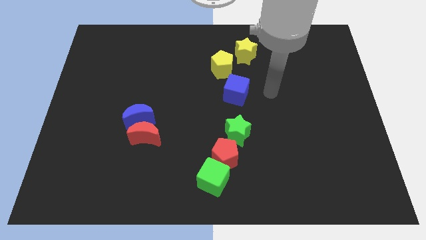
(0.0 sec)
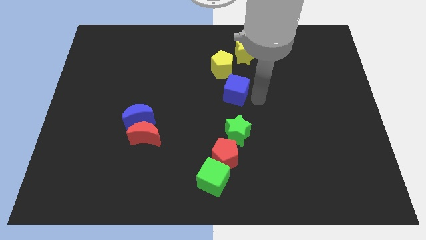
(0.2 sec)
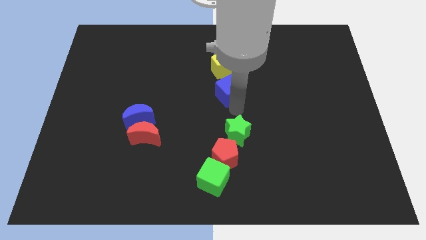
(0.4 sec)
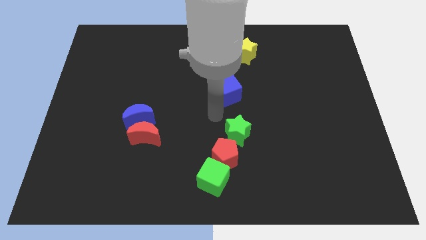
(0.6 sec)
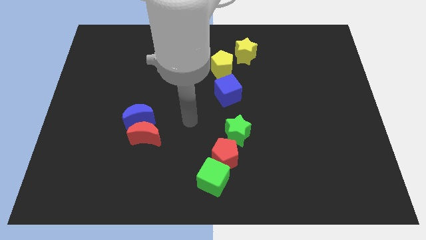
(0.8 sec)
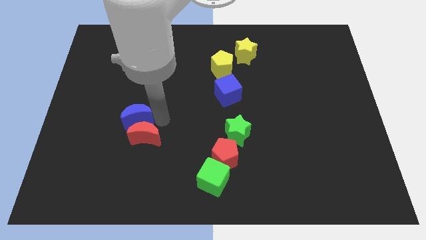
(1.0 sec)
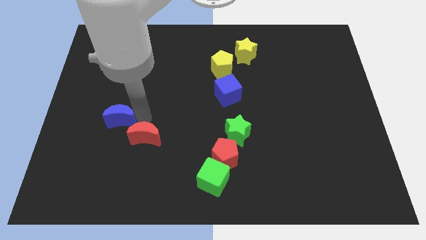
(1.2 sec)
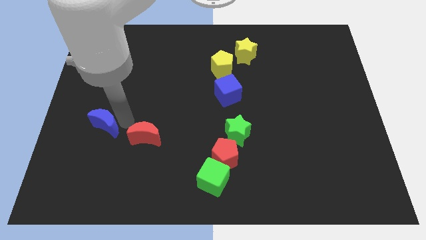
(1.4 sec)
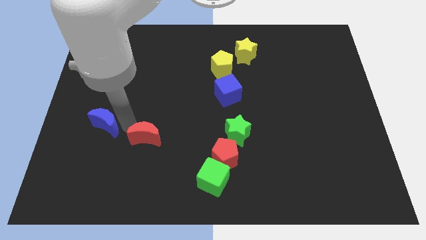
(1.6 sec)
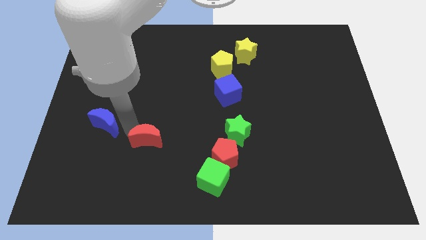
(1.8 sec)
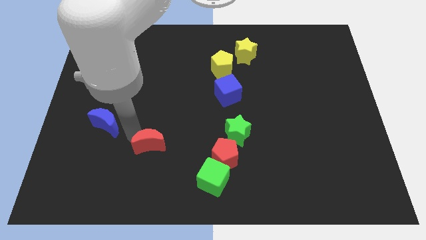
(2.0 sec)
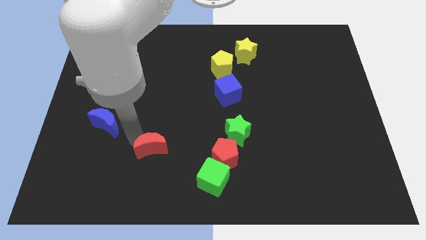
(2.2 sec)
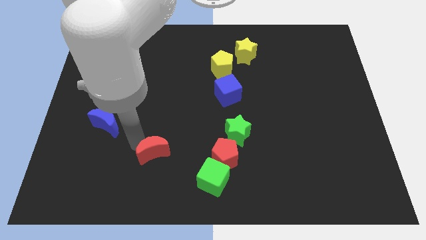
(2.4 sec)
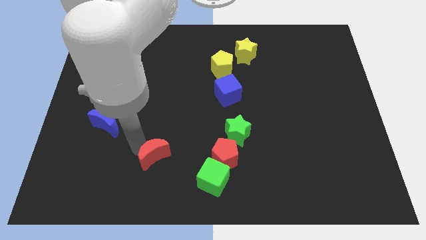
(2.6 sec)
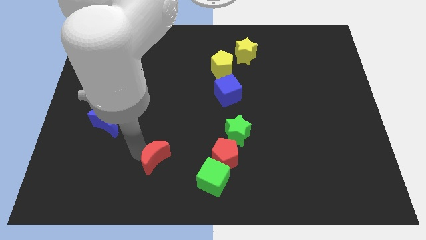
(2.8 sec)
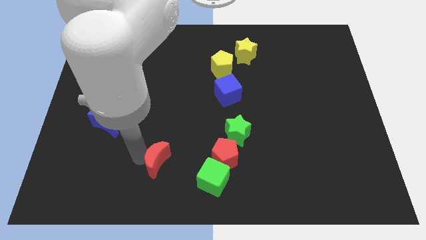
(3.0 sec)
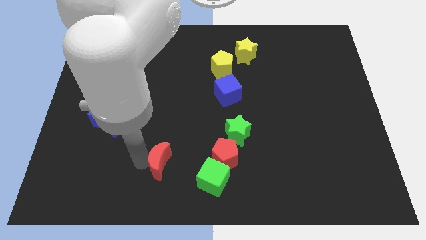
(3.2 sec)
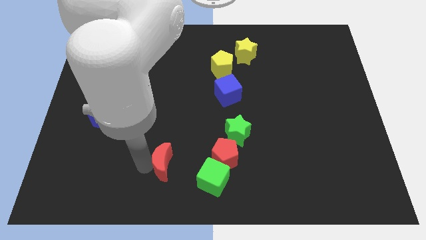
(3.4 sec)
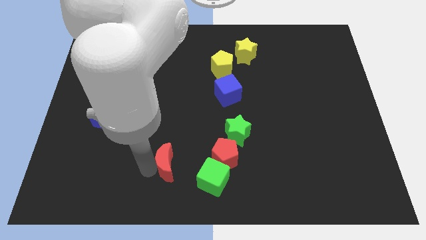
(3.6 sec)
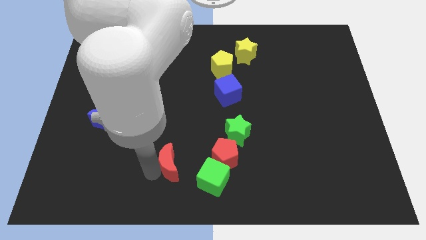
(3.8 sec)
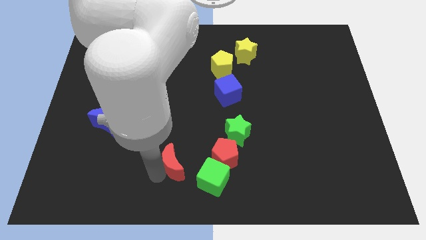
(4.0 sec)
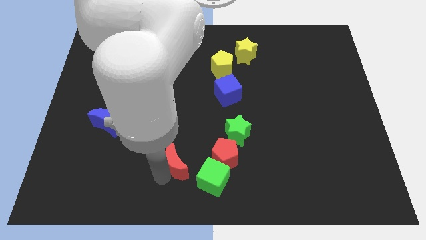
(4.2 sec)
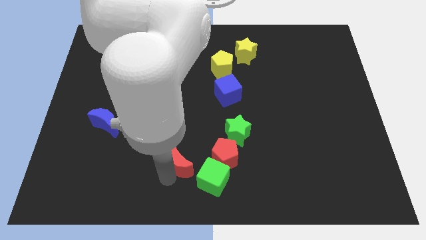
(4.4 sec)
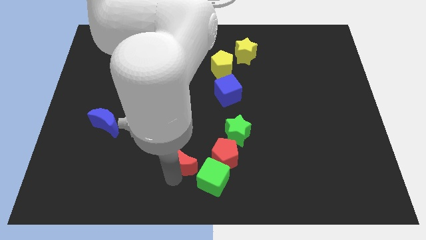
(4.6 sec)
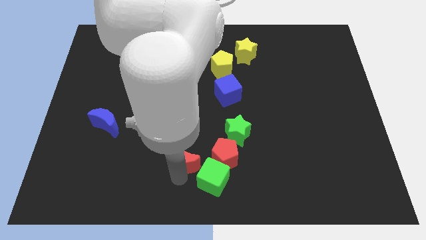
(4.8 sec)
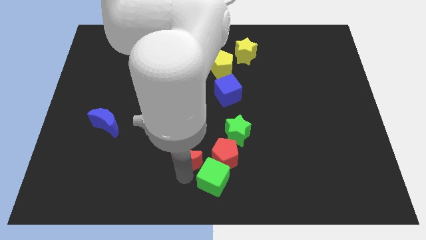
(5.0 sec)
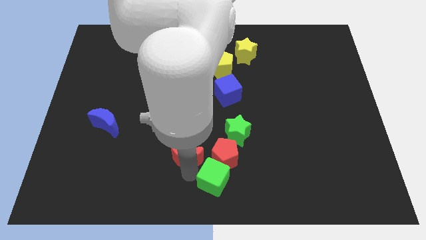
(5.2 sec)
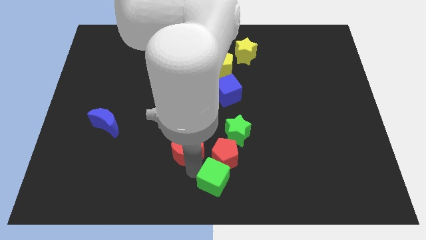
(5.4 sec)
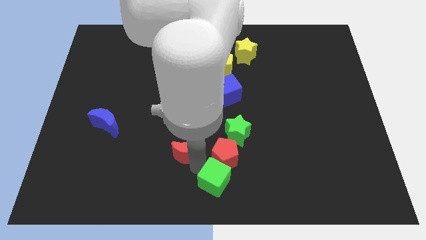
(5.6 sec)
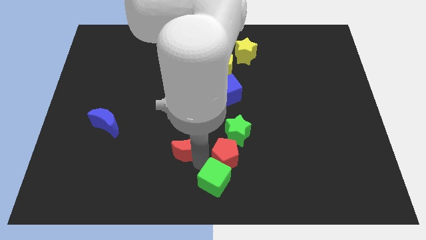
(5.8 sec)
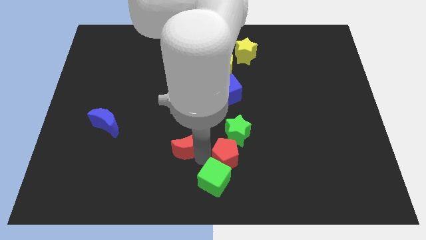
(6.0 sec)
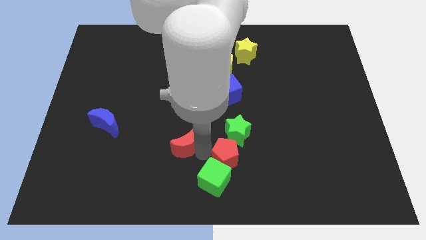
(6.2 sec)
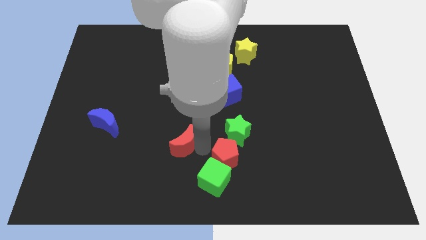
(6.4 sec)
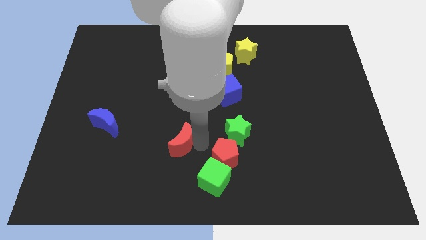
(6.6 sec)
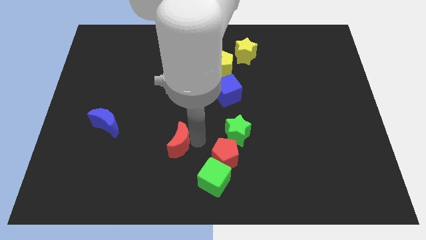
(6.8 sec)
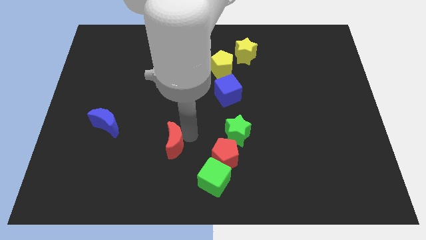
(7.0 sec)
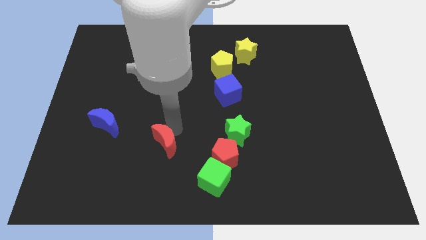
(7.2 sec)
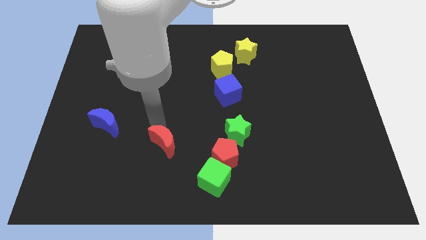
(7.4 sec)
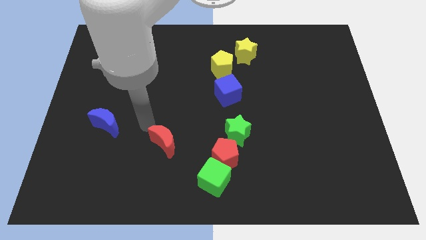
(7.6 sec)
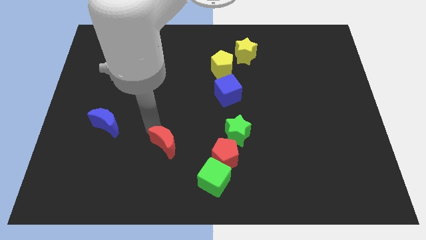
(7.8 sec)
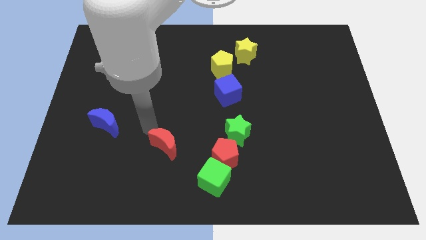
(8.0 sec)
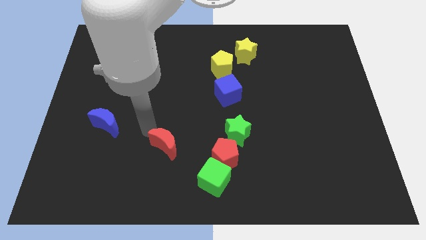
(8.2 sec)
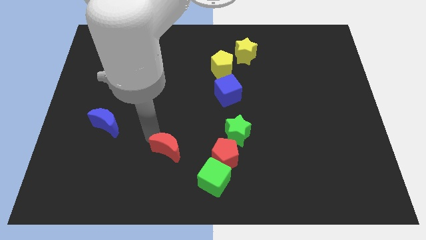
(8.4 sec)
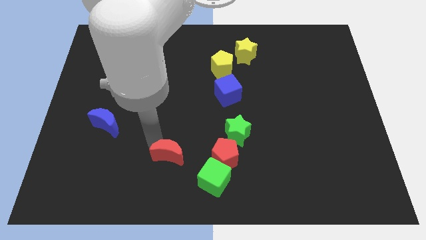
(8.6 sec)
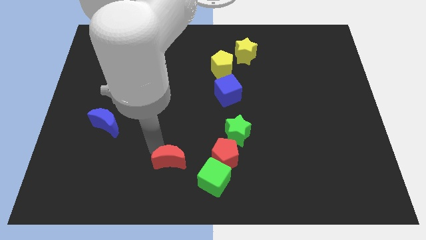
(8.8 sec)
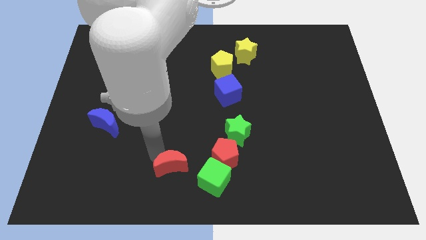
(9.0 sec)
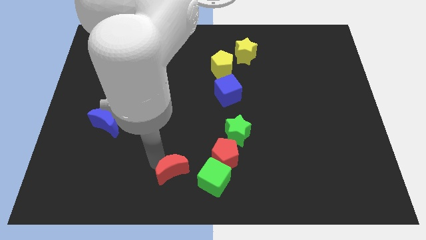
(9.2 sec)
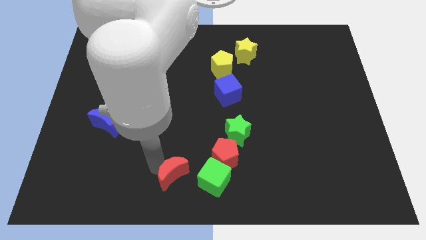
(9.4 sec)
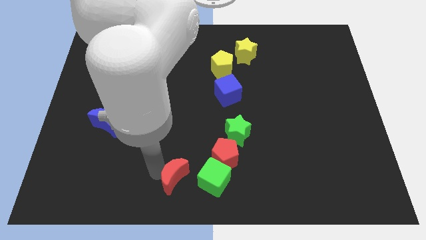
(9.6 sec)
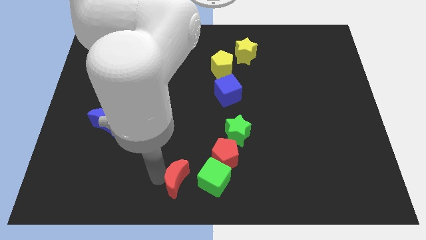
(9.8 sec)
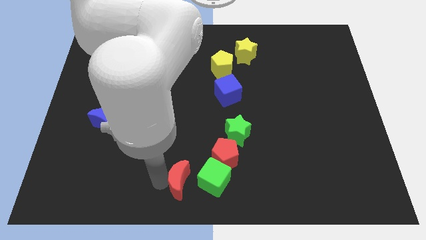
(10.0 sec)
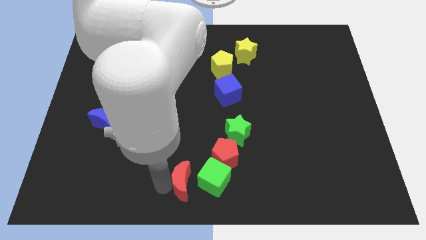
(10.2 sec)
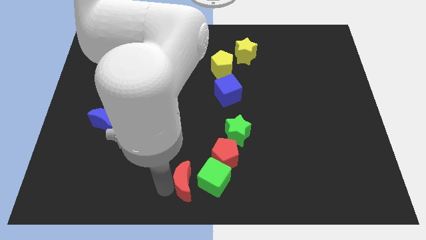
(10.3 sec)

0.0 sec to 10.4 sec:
slide the red moon towards the green cube

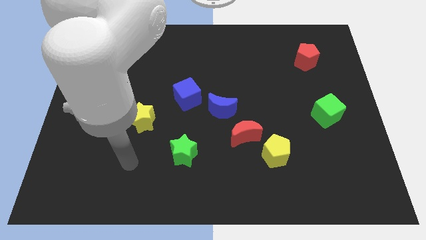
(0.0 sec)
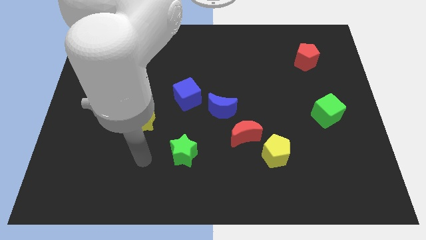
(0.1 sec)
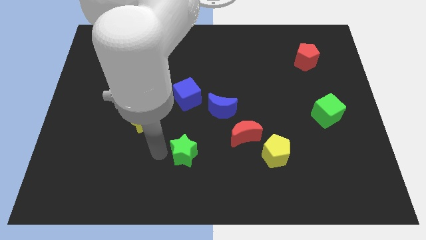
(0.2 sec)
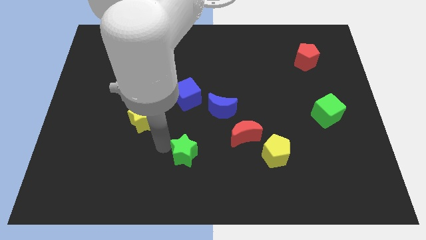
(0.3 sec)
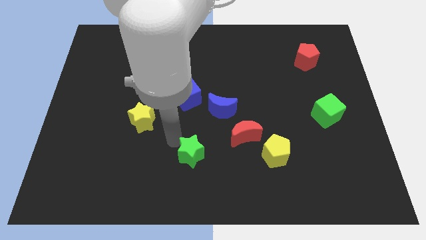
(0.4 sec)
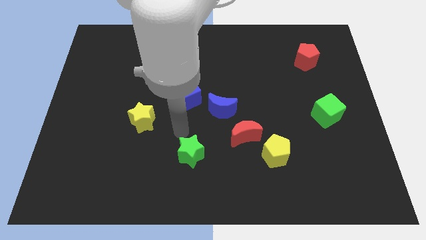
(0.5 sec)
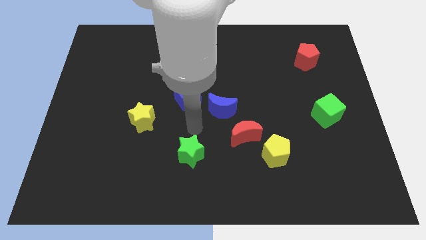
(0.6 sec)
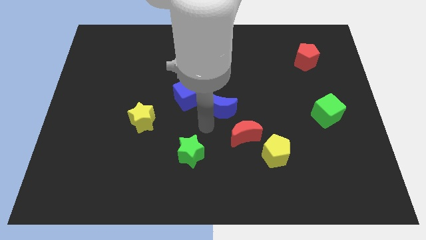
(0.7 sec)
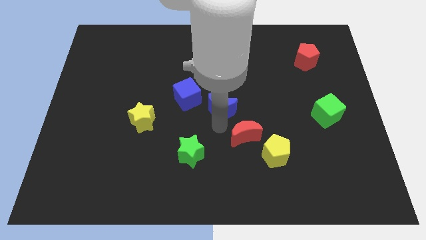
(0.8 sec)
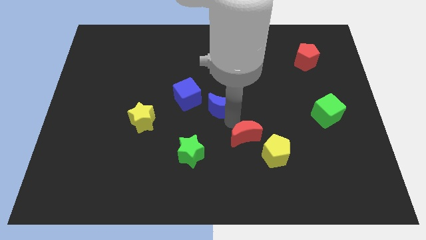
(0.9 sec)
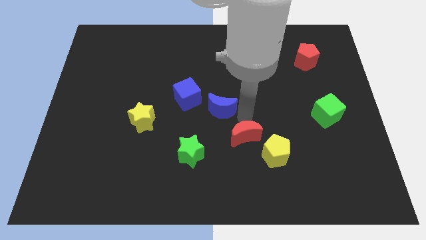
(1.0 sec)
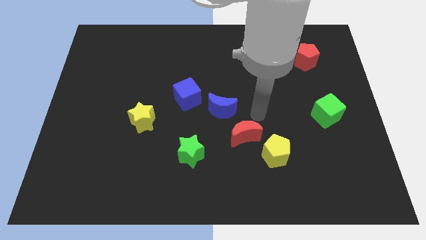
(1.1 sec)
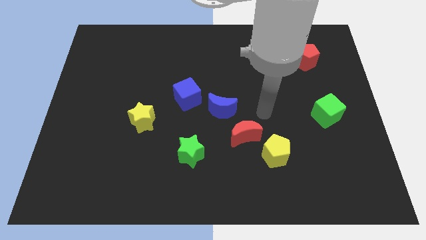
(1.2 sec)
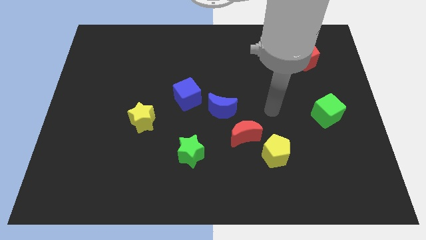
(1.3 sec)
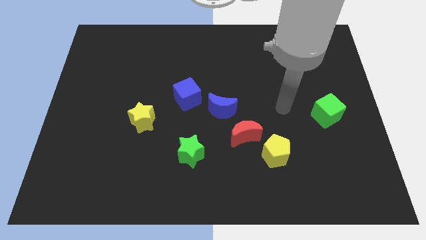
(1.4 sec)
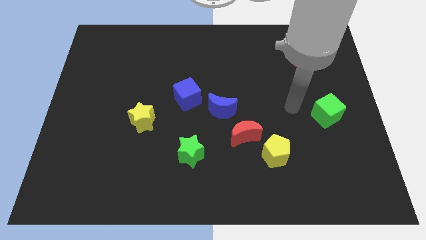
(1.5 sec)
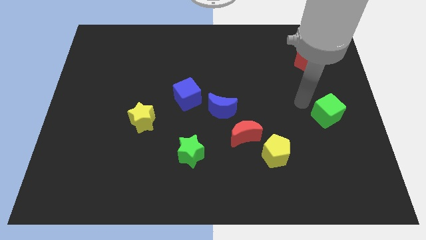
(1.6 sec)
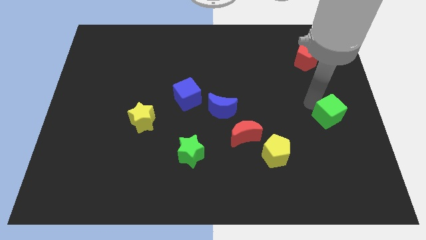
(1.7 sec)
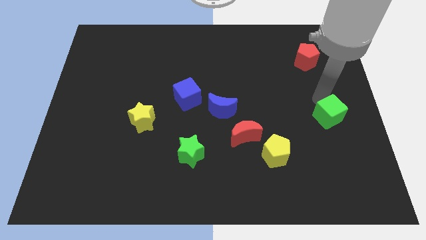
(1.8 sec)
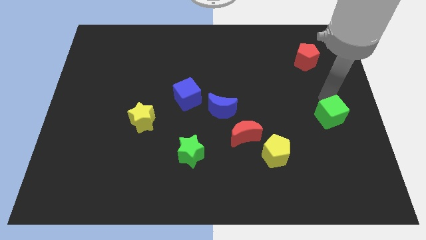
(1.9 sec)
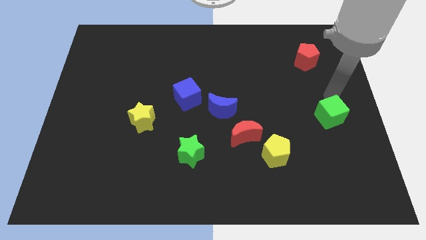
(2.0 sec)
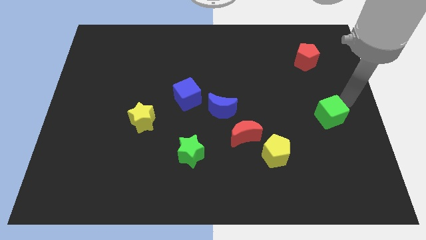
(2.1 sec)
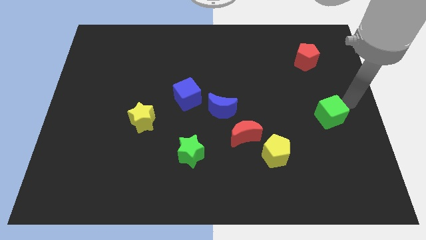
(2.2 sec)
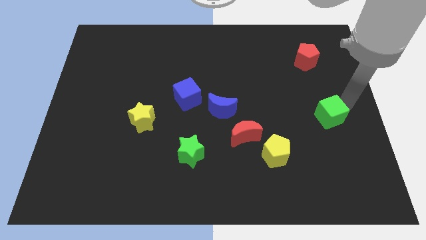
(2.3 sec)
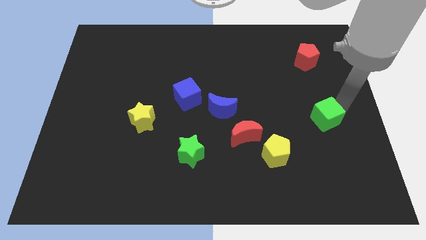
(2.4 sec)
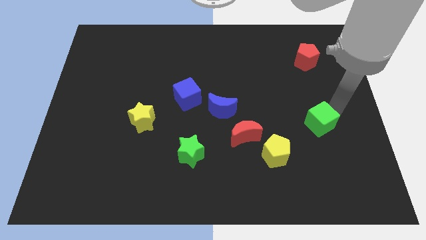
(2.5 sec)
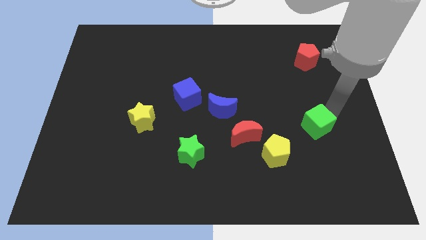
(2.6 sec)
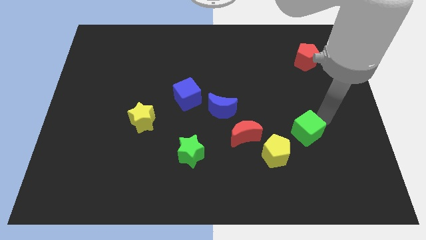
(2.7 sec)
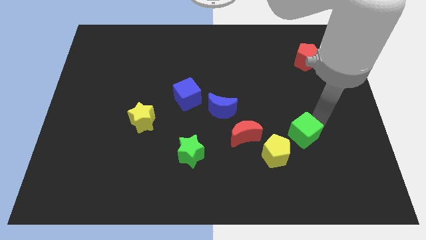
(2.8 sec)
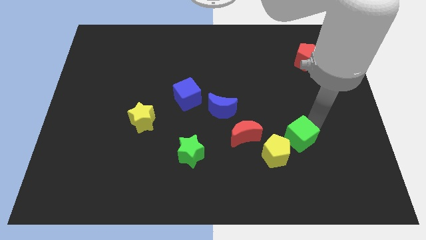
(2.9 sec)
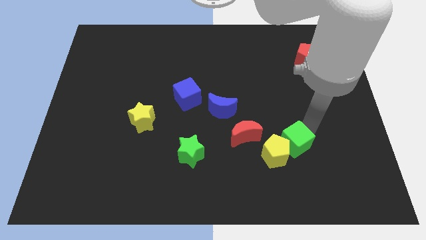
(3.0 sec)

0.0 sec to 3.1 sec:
slide the green cube close to the yellow pentagon
